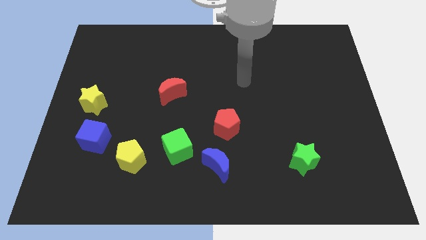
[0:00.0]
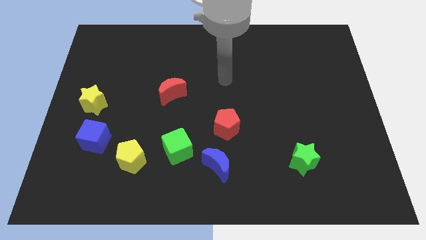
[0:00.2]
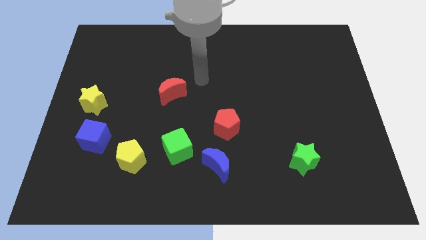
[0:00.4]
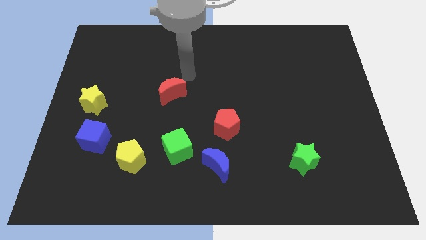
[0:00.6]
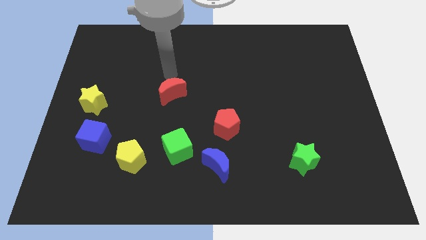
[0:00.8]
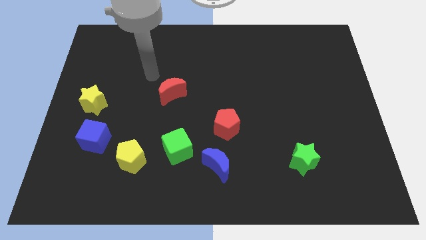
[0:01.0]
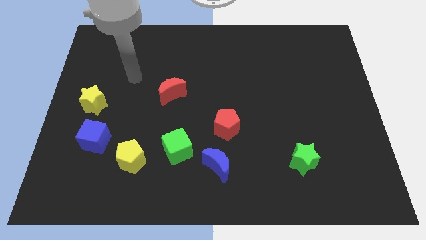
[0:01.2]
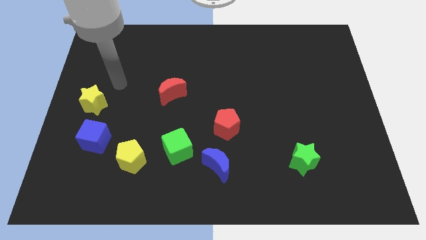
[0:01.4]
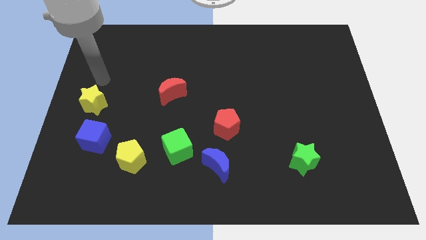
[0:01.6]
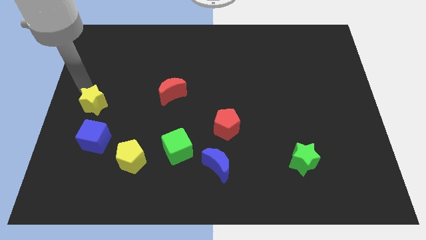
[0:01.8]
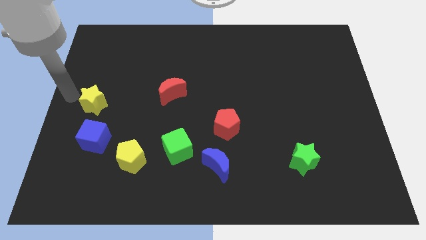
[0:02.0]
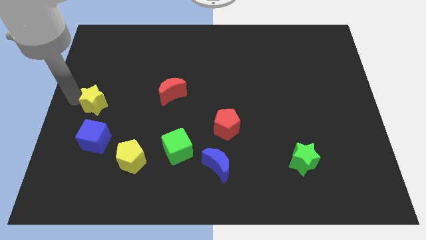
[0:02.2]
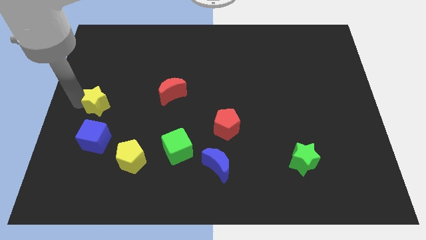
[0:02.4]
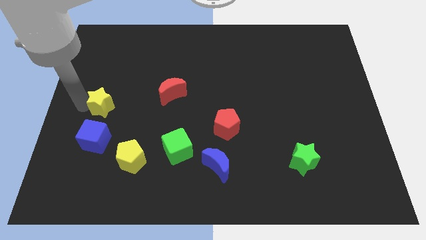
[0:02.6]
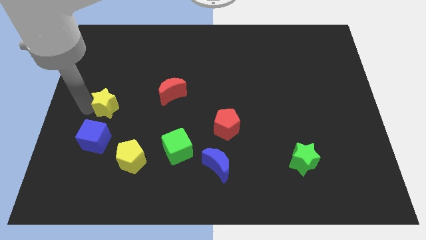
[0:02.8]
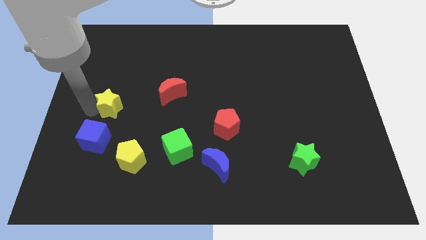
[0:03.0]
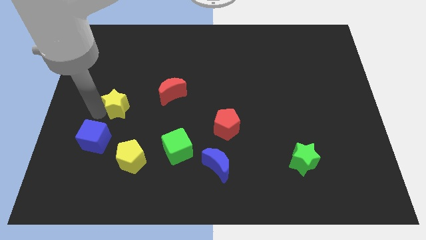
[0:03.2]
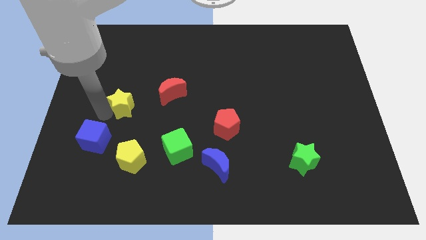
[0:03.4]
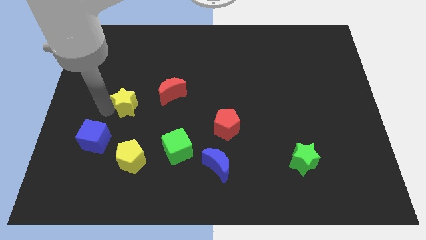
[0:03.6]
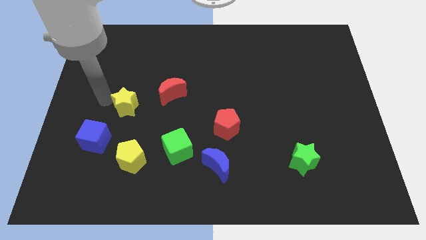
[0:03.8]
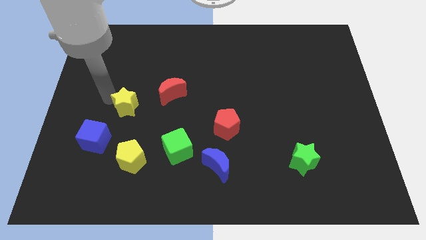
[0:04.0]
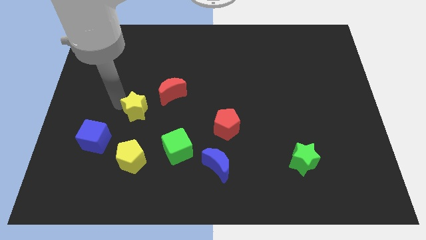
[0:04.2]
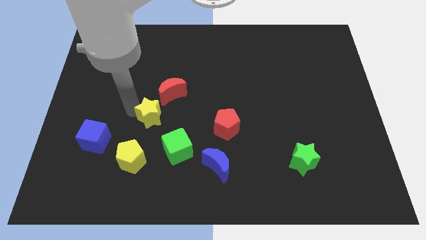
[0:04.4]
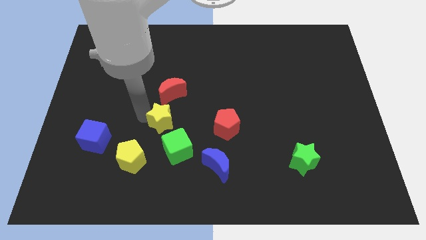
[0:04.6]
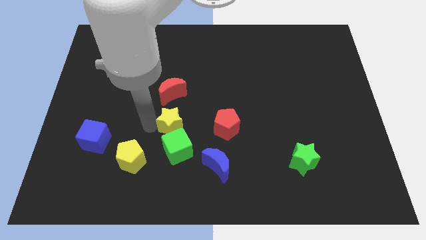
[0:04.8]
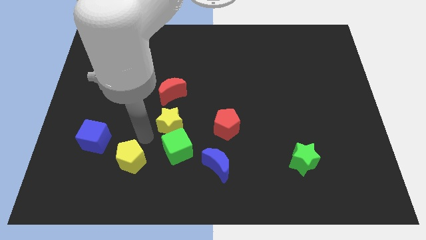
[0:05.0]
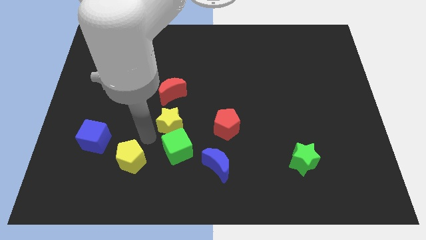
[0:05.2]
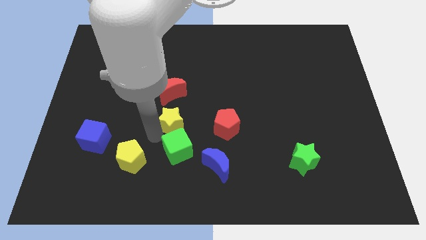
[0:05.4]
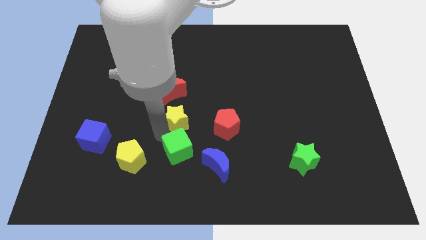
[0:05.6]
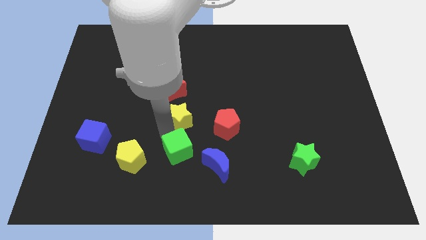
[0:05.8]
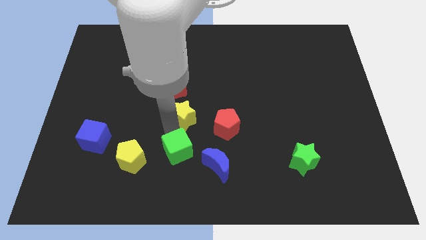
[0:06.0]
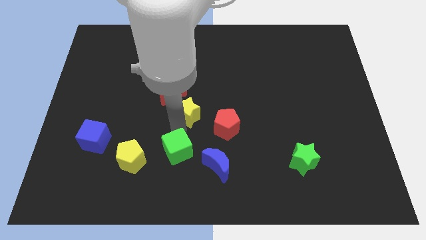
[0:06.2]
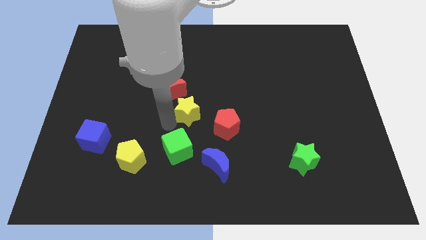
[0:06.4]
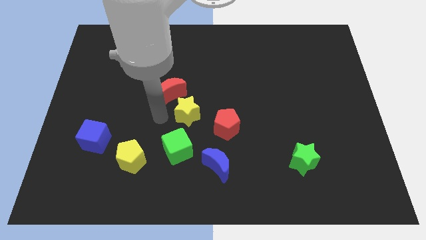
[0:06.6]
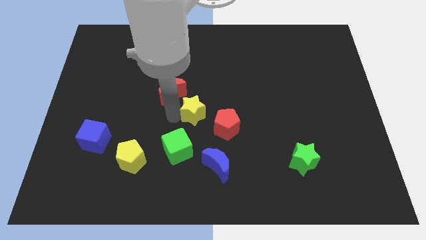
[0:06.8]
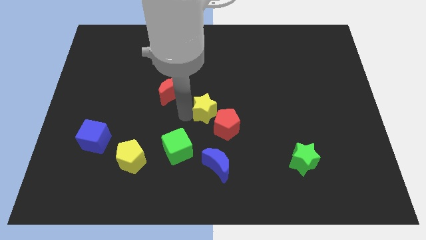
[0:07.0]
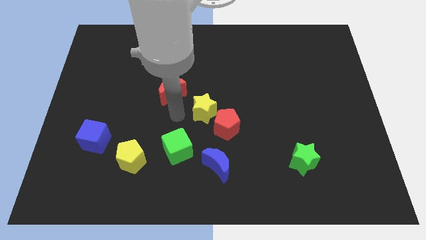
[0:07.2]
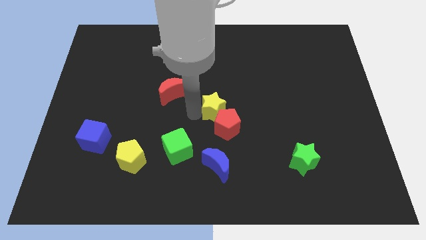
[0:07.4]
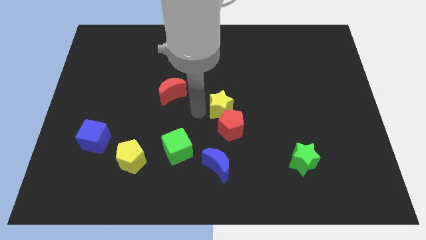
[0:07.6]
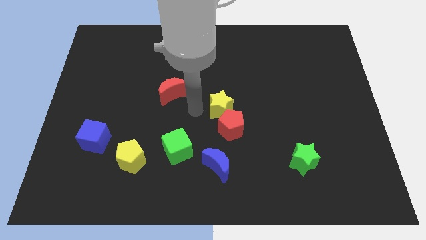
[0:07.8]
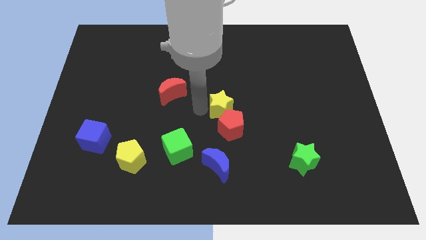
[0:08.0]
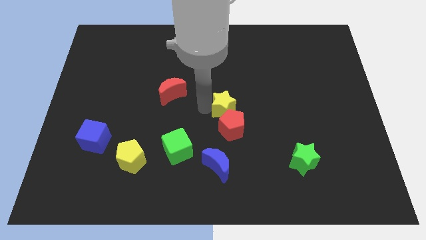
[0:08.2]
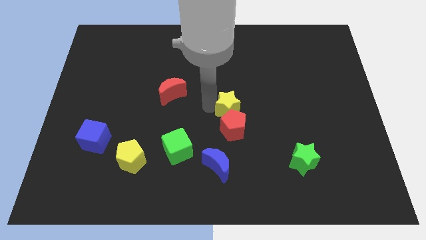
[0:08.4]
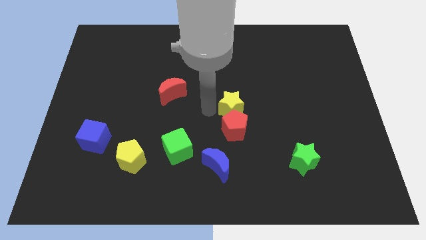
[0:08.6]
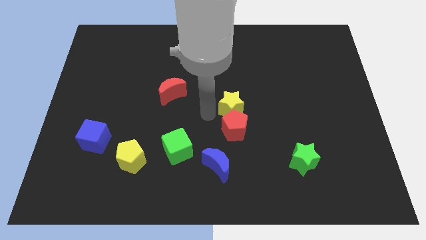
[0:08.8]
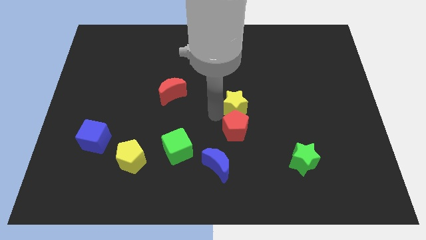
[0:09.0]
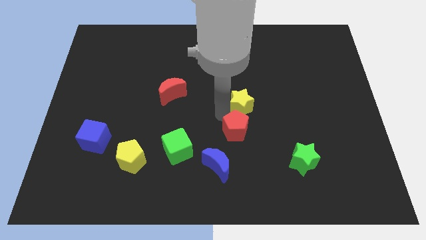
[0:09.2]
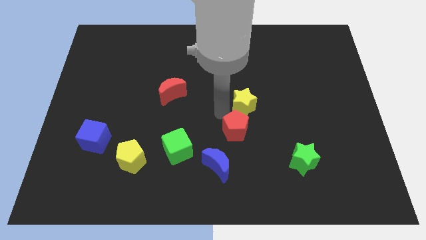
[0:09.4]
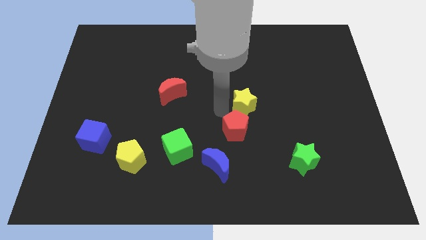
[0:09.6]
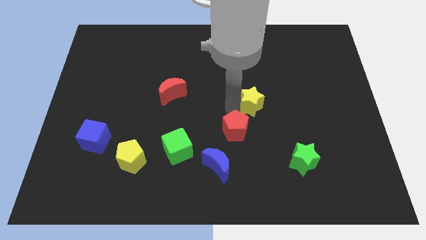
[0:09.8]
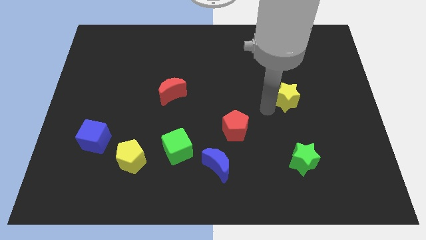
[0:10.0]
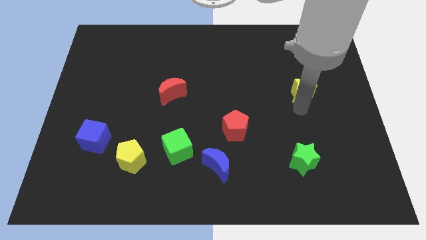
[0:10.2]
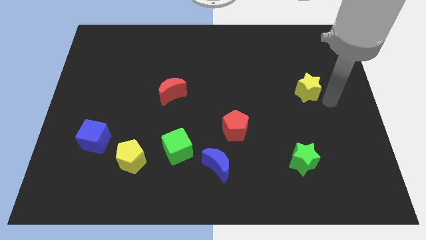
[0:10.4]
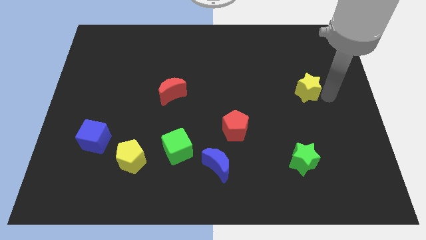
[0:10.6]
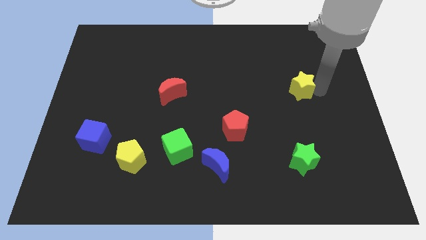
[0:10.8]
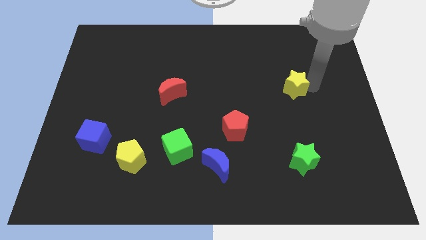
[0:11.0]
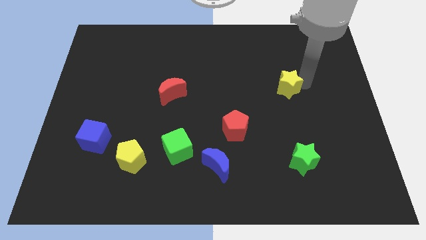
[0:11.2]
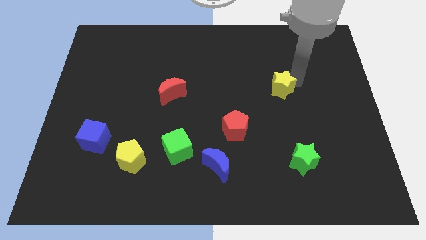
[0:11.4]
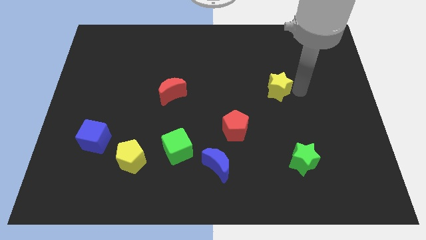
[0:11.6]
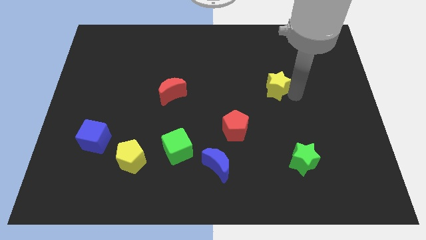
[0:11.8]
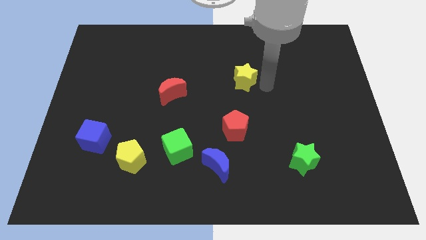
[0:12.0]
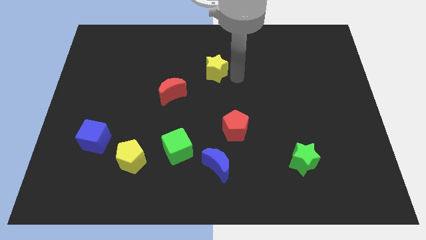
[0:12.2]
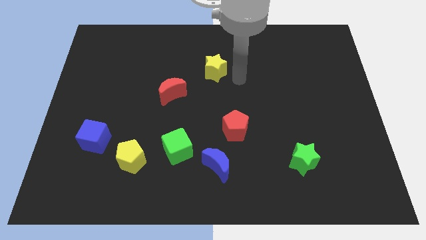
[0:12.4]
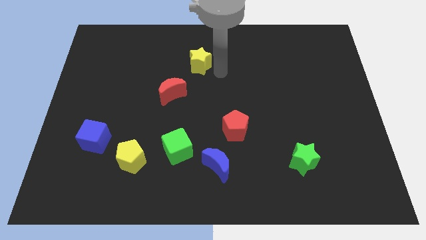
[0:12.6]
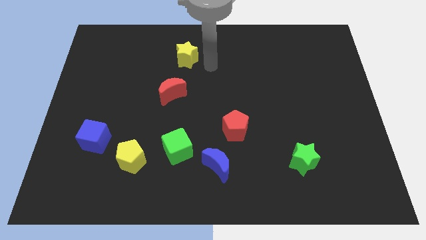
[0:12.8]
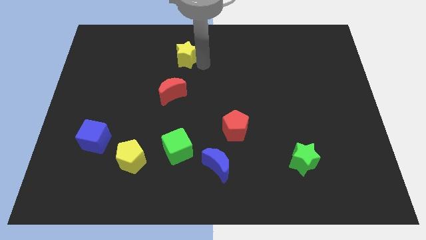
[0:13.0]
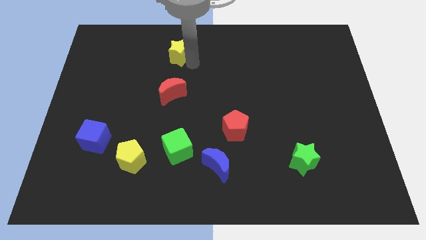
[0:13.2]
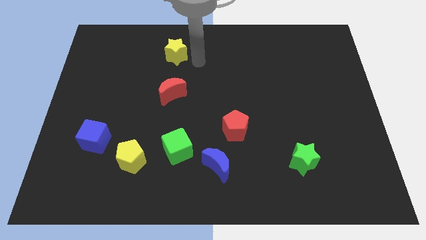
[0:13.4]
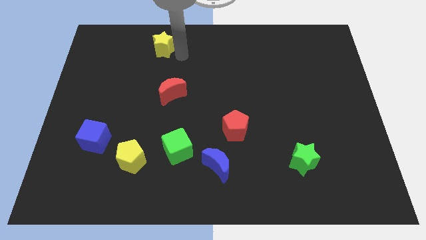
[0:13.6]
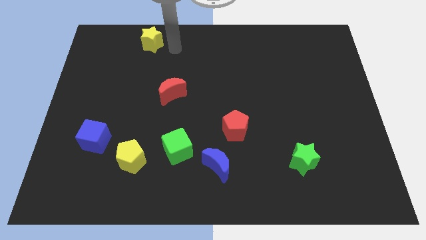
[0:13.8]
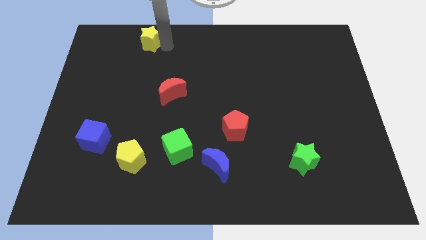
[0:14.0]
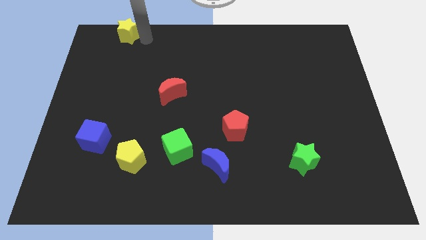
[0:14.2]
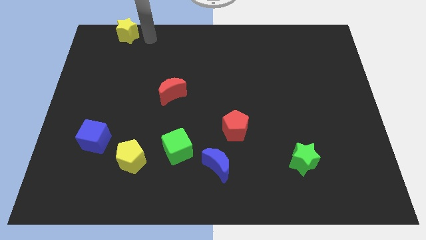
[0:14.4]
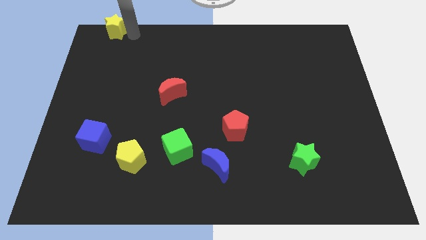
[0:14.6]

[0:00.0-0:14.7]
slide the yellow star to the top left
